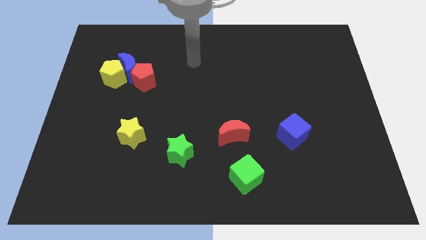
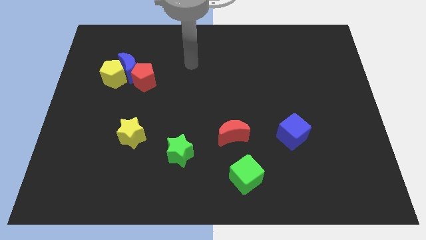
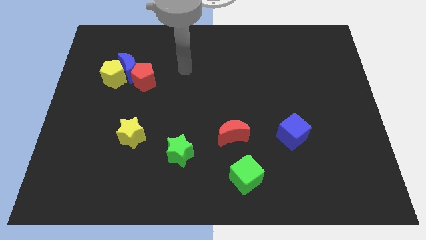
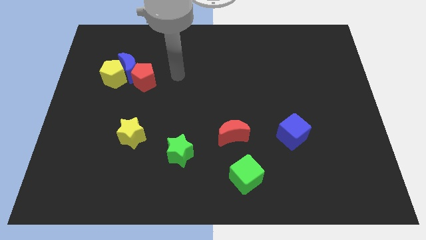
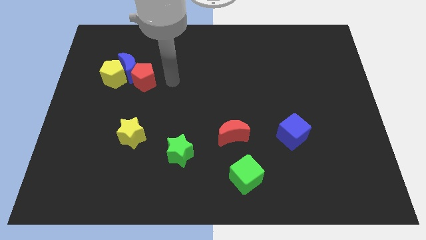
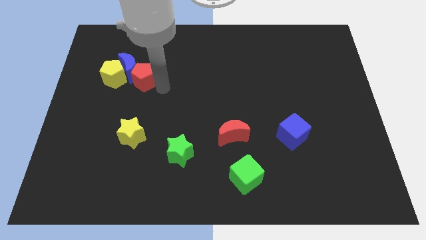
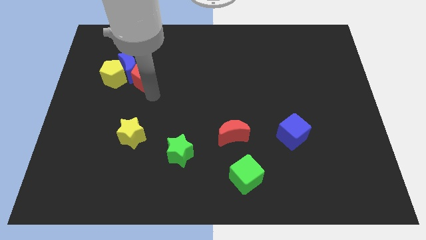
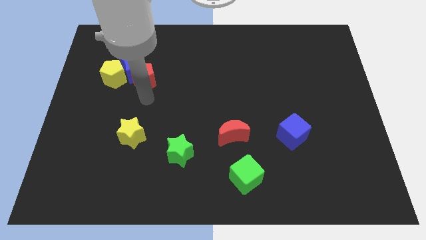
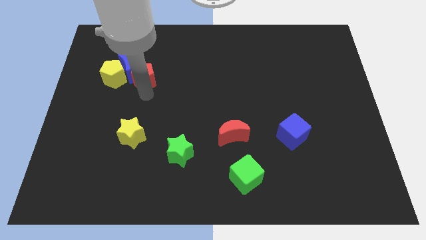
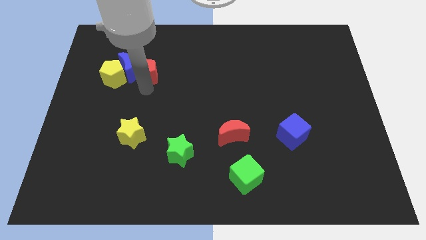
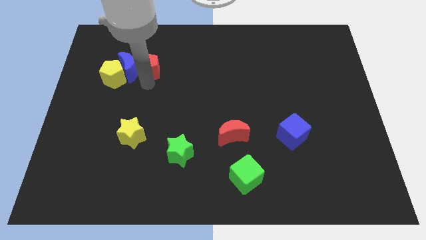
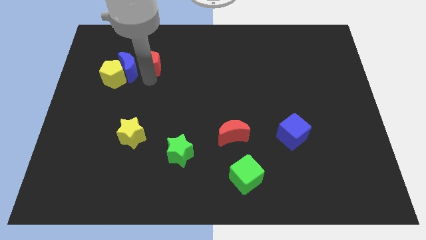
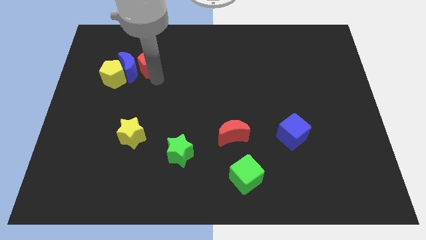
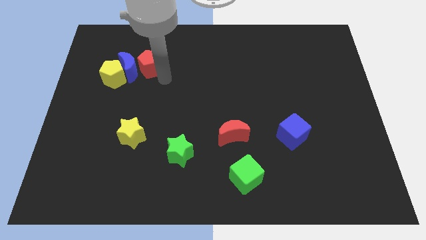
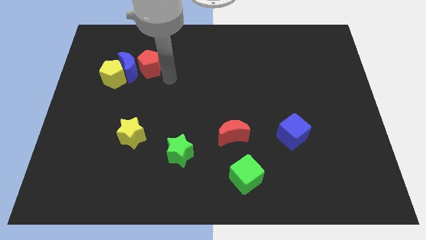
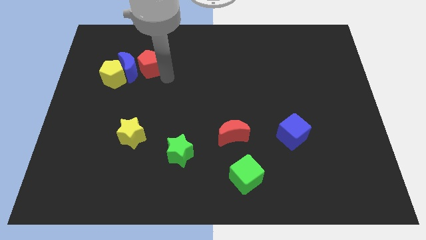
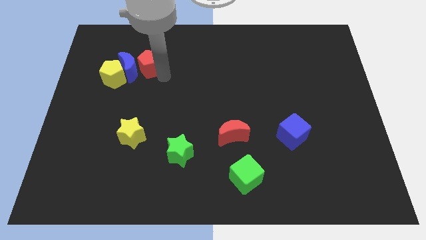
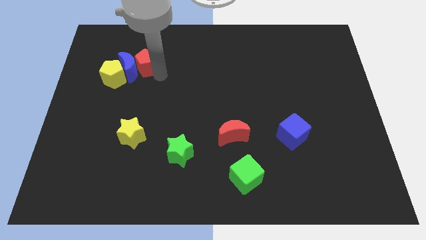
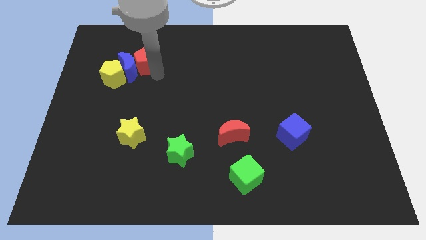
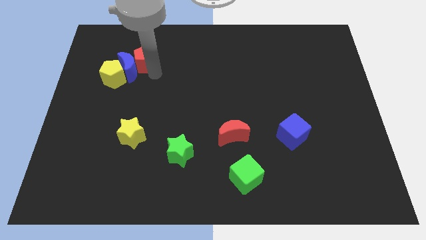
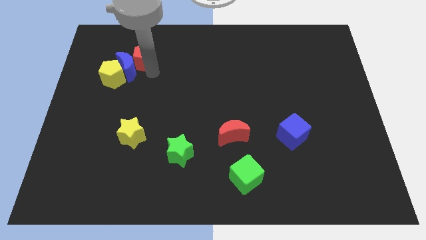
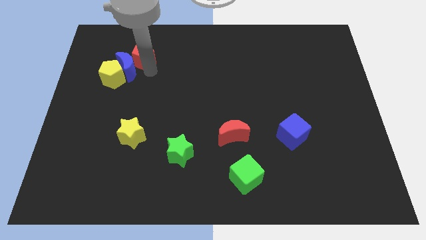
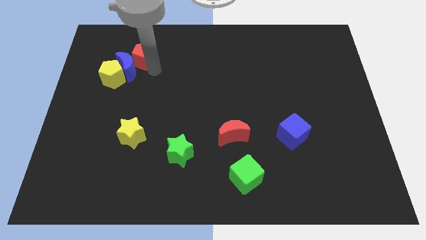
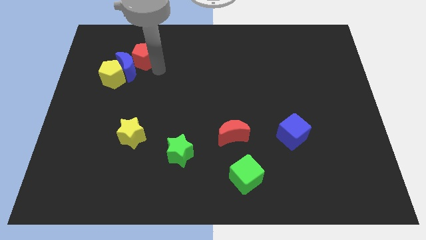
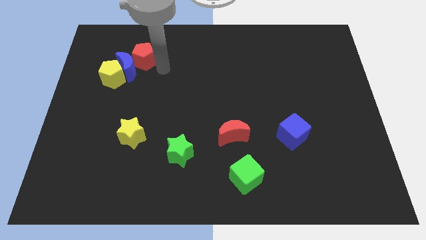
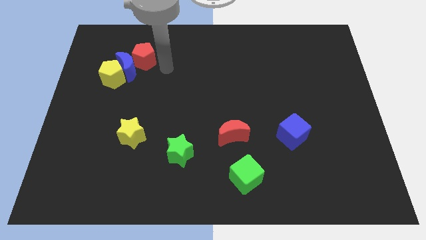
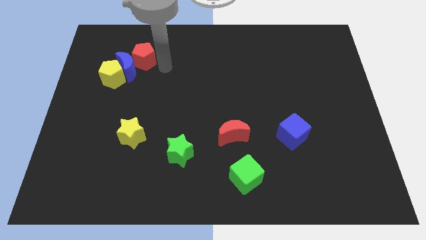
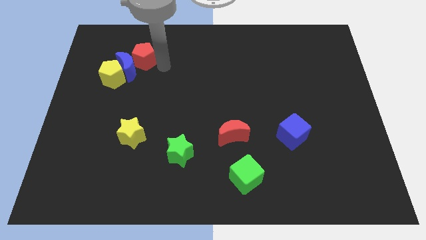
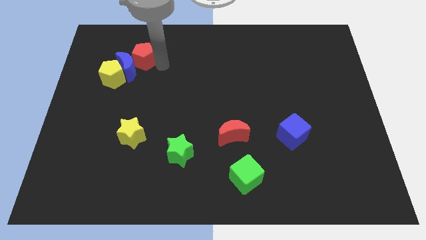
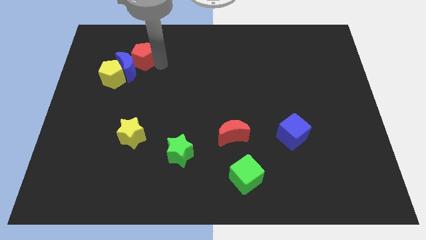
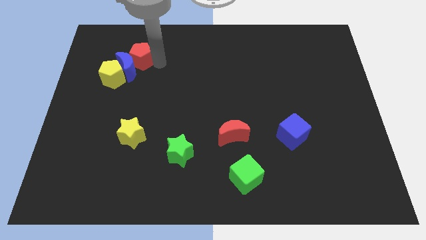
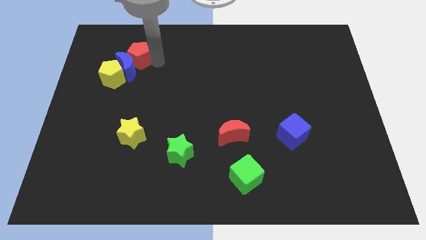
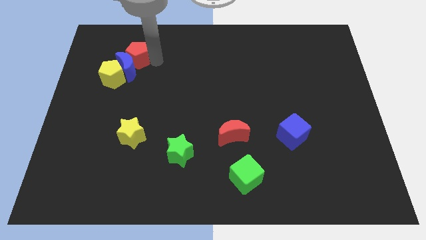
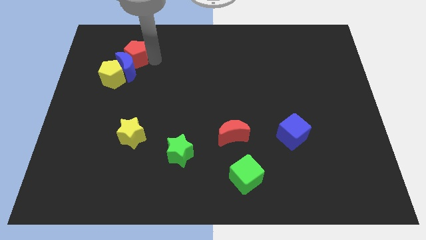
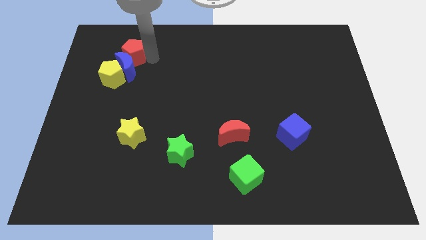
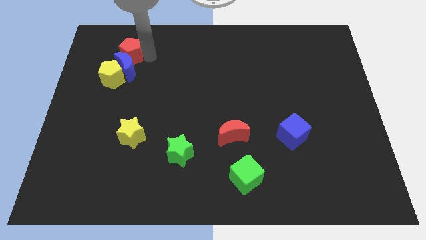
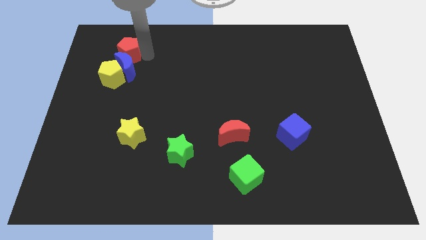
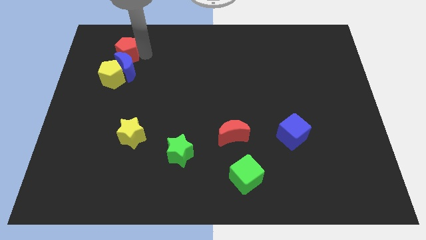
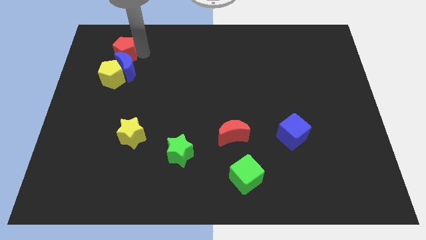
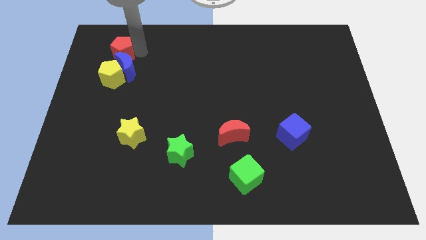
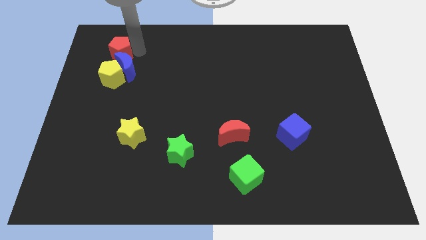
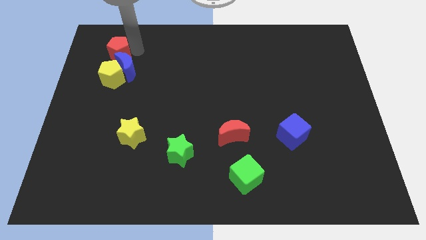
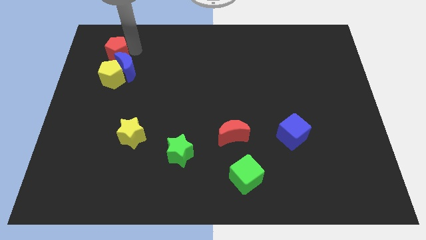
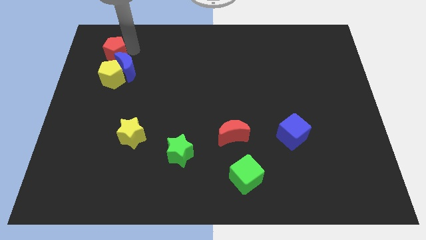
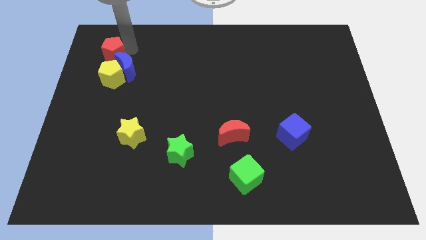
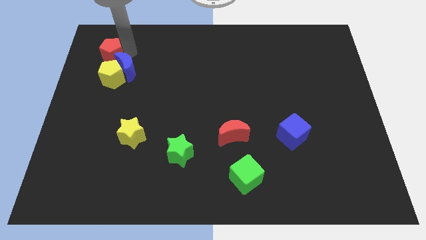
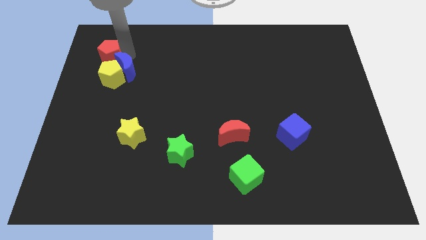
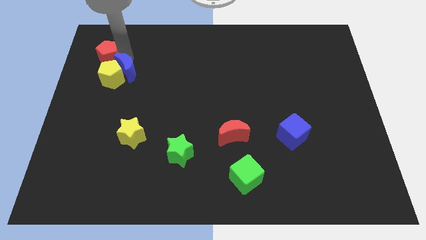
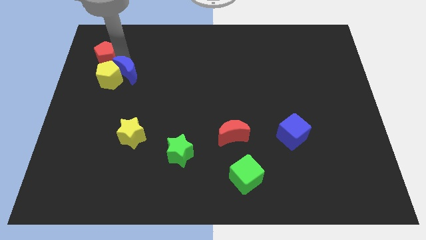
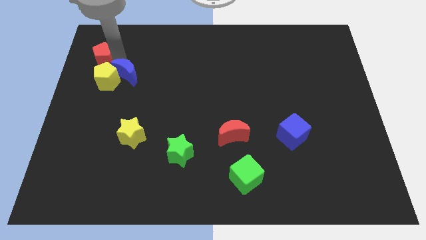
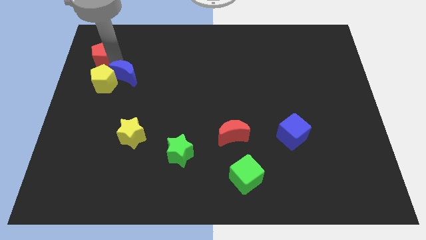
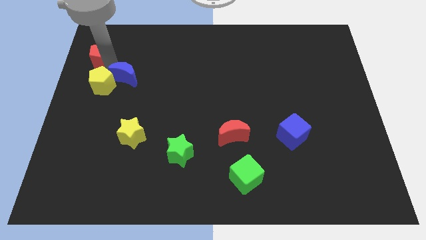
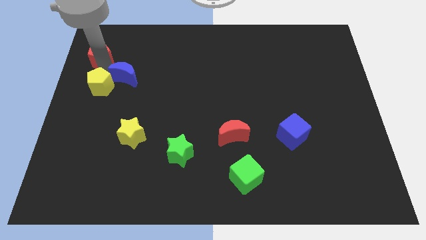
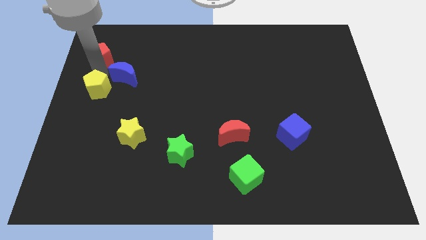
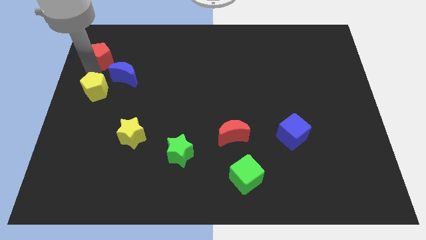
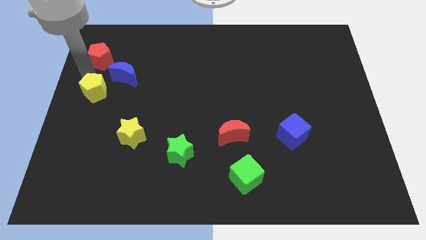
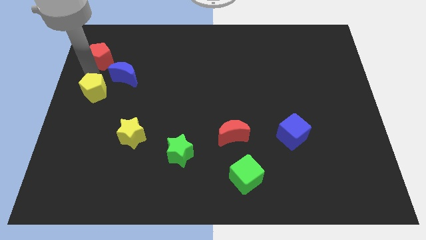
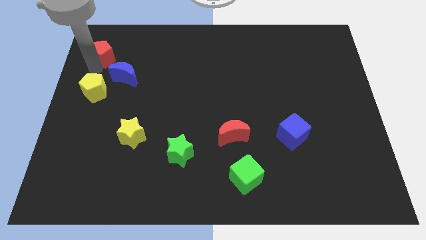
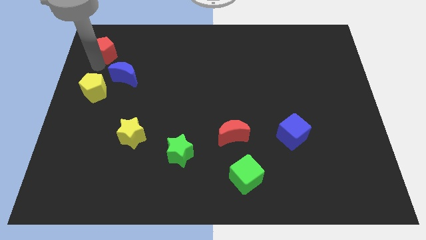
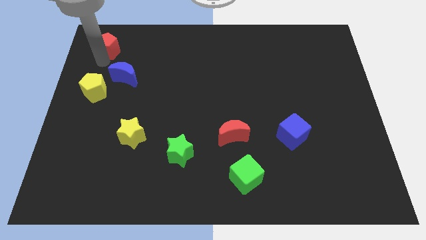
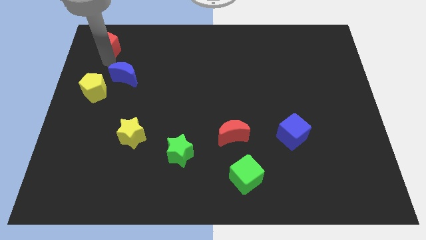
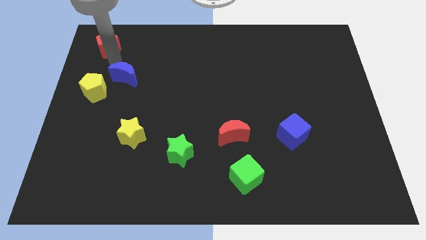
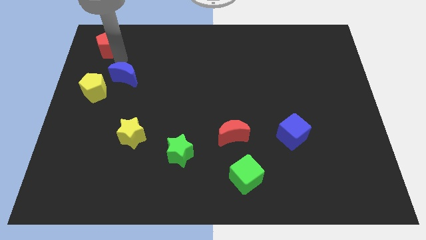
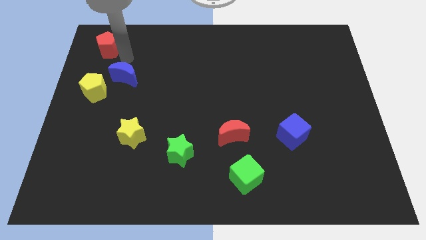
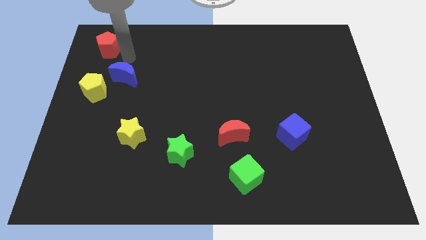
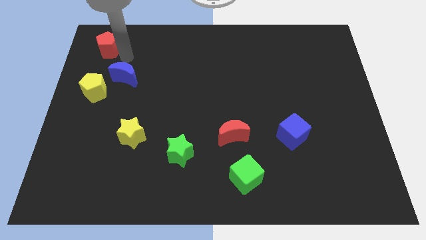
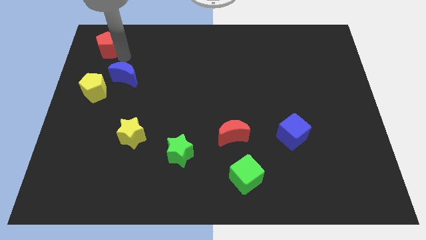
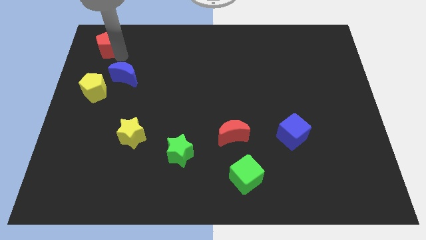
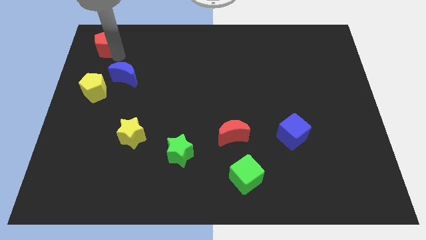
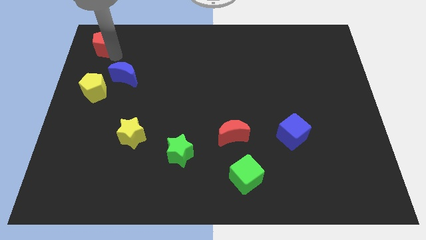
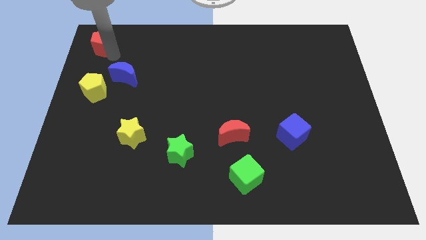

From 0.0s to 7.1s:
push the red pentagon to the top left
